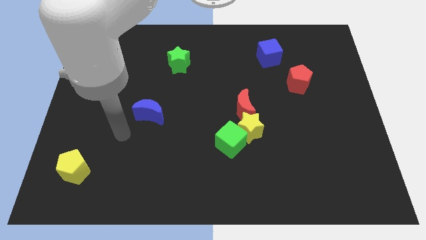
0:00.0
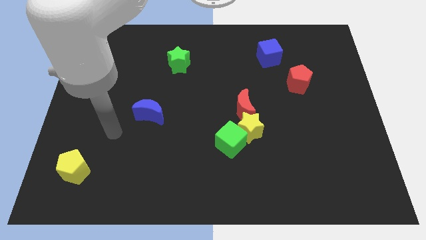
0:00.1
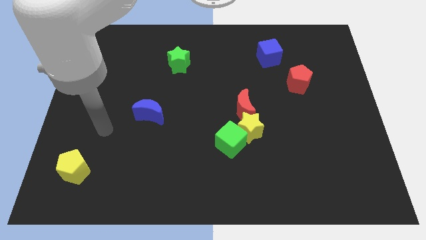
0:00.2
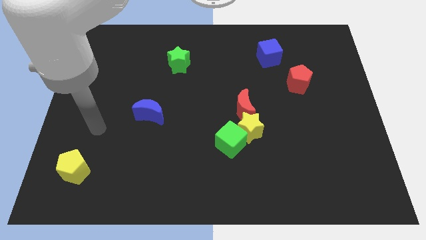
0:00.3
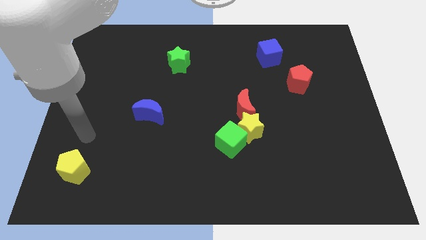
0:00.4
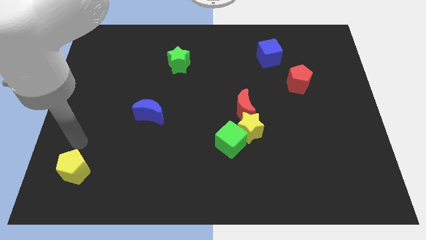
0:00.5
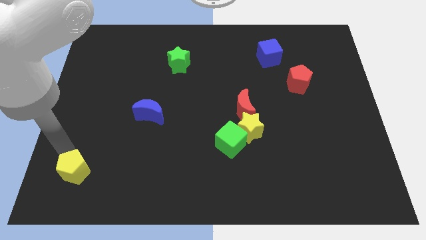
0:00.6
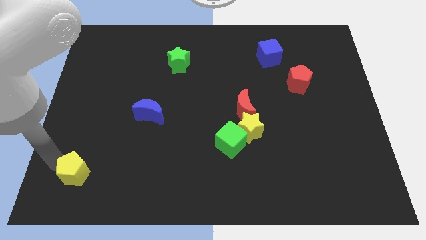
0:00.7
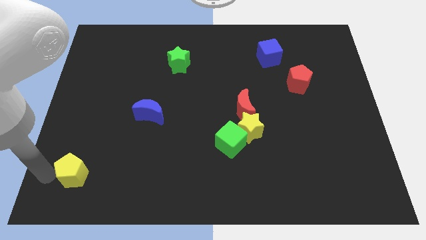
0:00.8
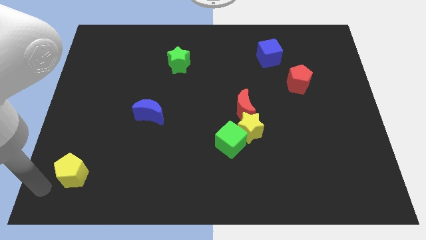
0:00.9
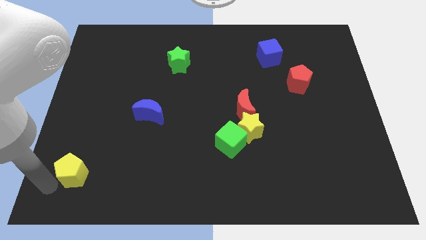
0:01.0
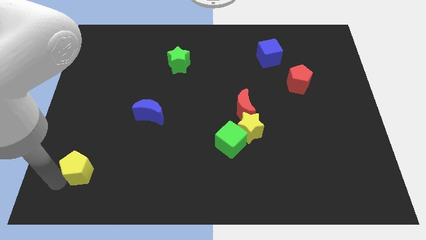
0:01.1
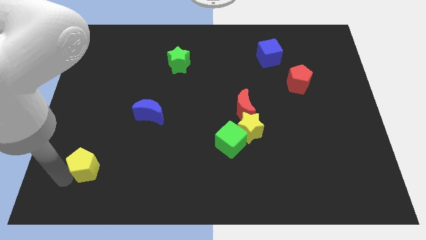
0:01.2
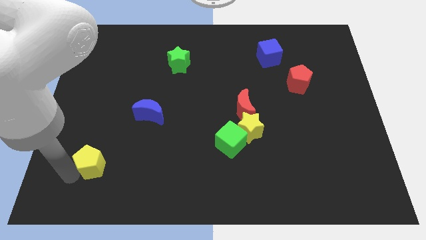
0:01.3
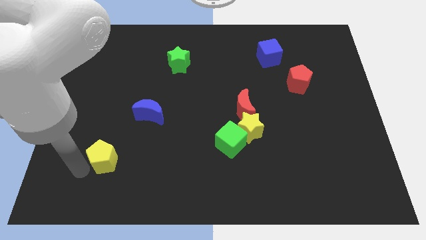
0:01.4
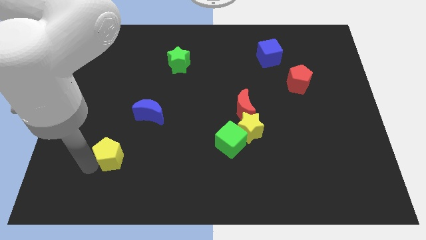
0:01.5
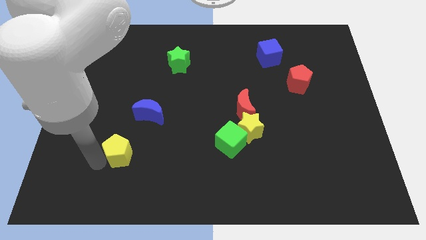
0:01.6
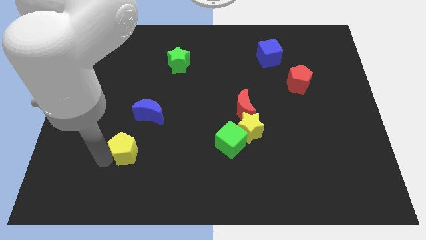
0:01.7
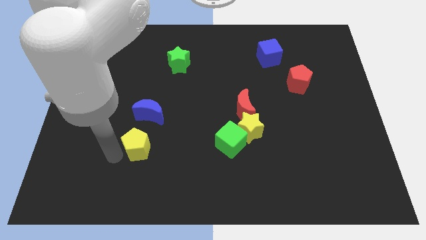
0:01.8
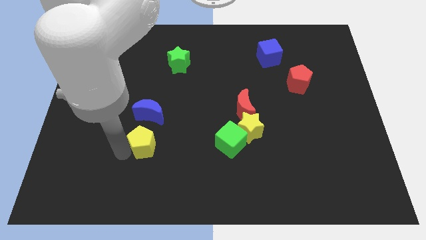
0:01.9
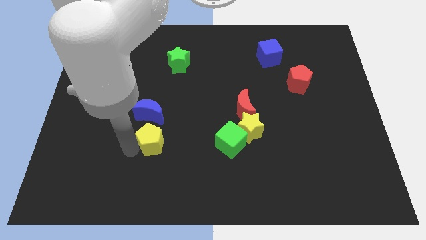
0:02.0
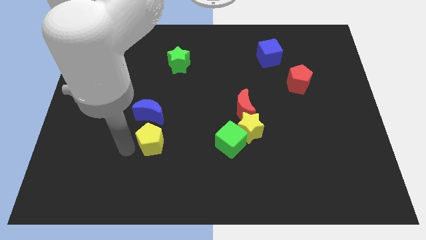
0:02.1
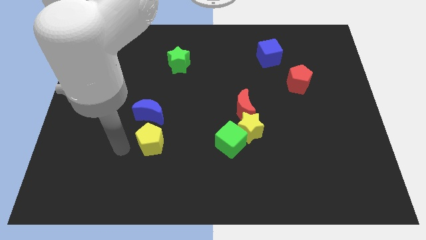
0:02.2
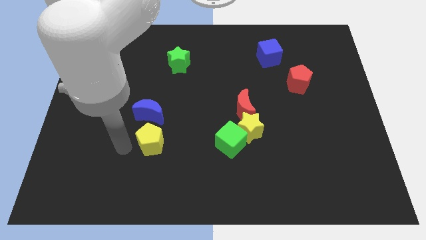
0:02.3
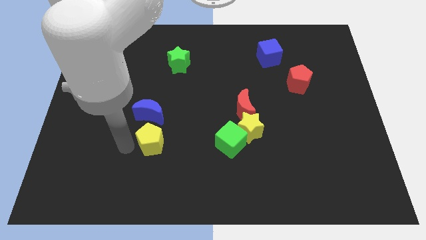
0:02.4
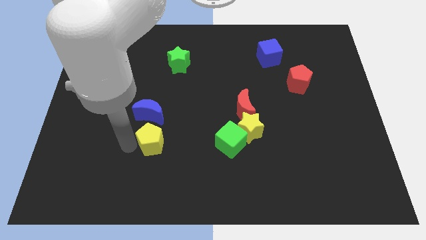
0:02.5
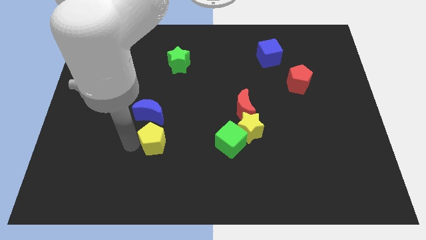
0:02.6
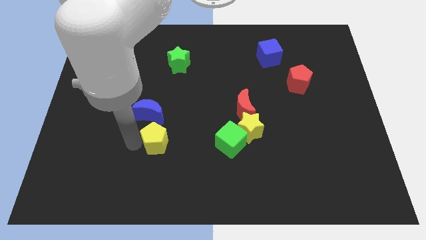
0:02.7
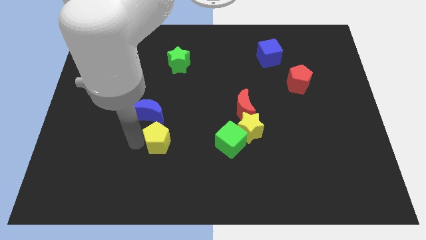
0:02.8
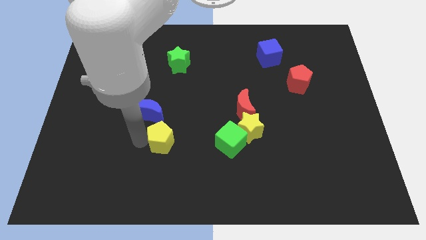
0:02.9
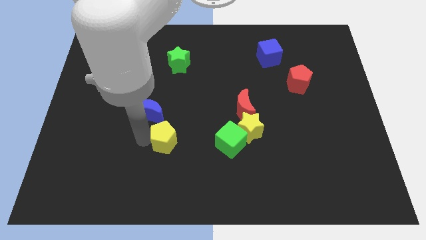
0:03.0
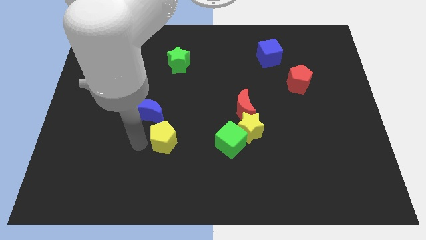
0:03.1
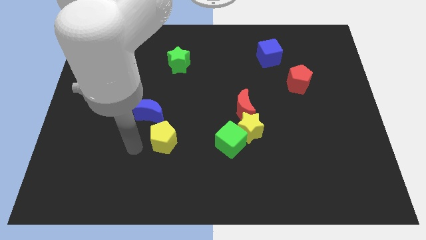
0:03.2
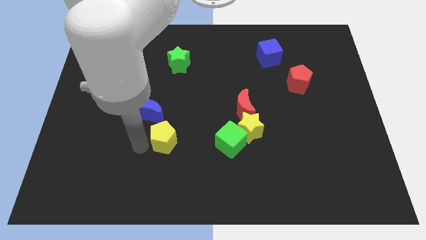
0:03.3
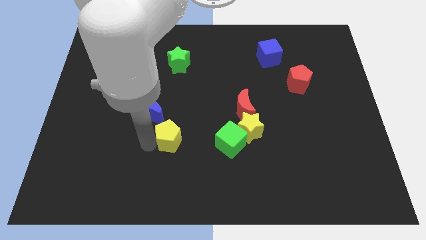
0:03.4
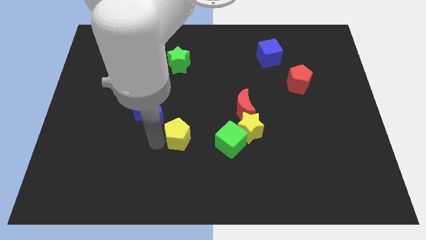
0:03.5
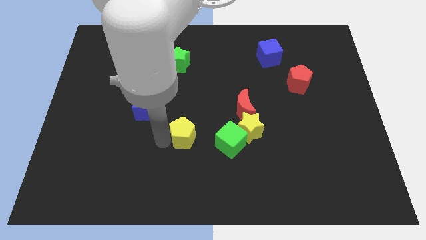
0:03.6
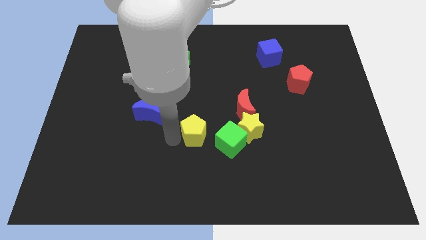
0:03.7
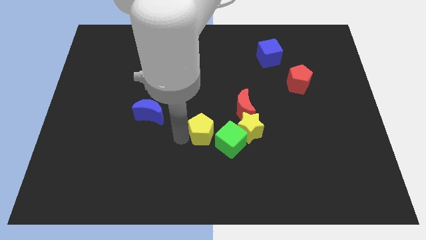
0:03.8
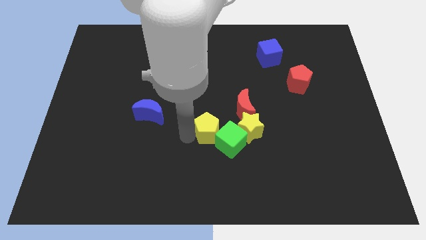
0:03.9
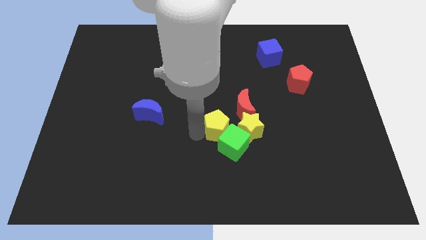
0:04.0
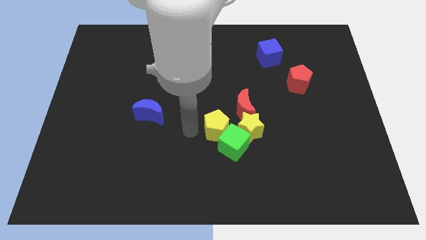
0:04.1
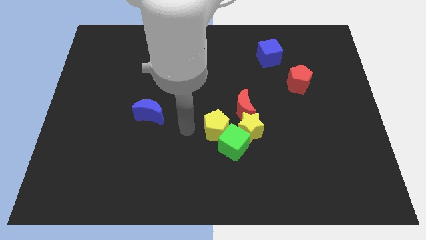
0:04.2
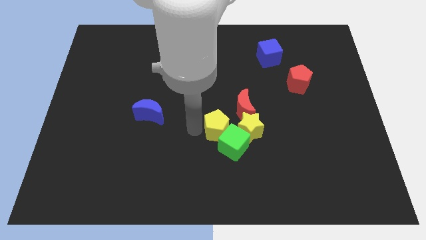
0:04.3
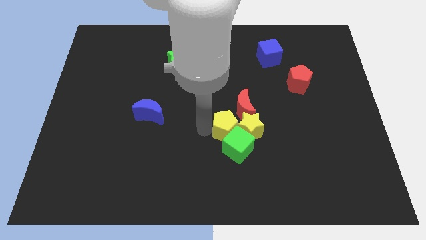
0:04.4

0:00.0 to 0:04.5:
push the yellow pentagon close to the yellow star

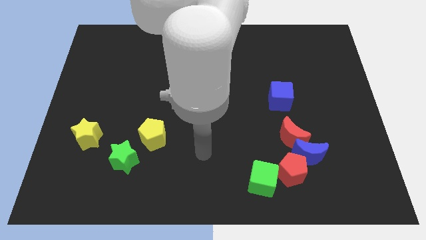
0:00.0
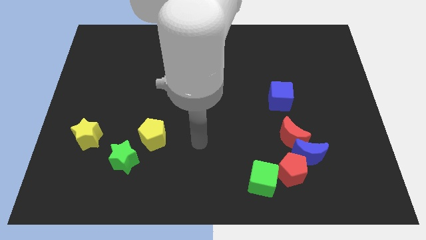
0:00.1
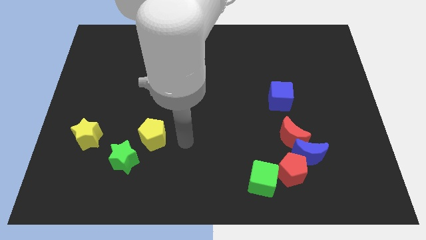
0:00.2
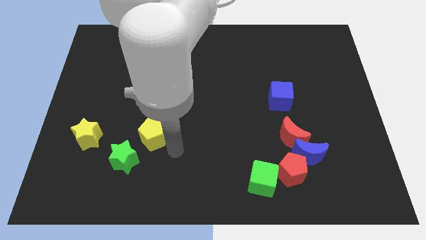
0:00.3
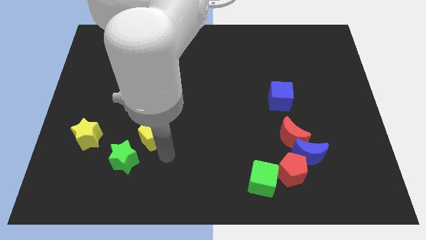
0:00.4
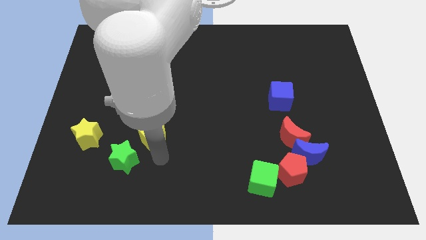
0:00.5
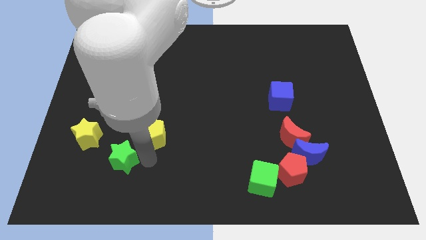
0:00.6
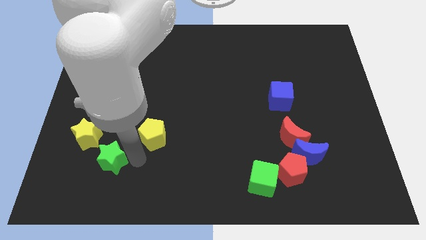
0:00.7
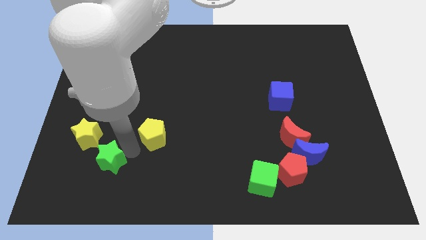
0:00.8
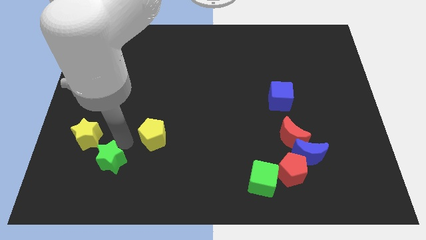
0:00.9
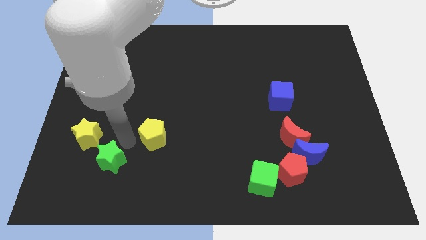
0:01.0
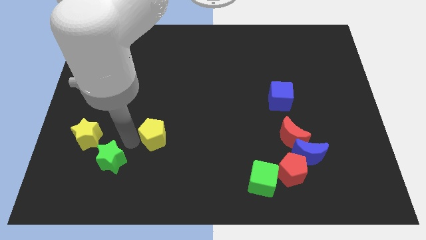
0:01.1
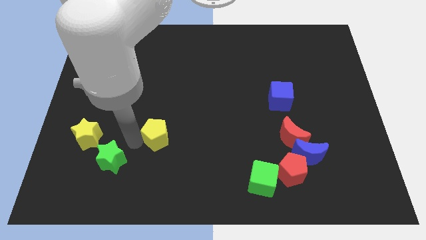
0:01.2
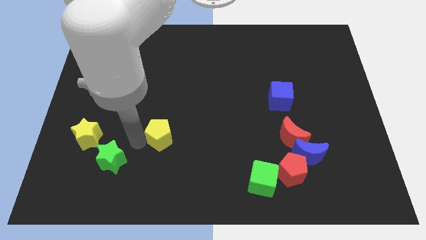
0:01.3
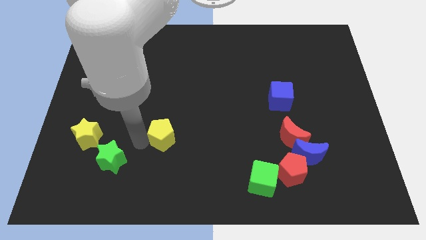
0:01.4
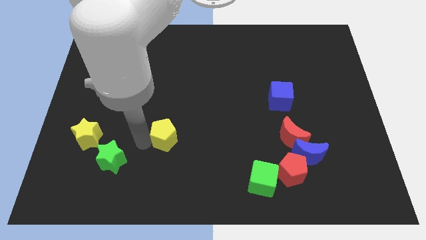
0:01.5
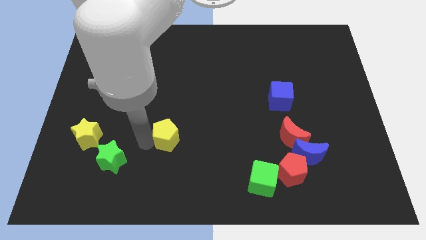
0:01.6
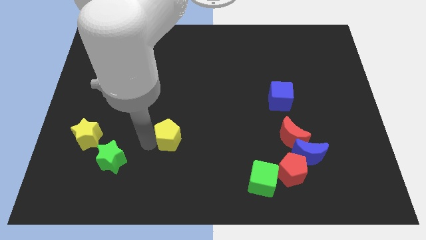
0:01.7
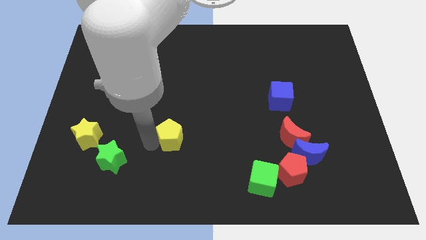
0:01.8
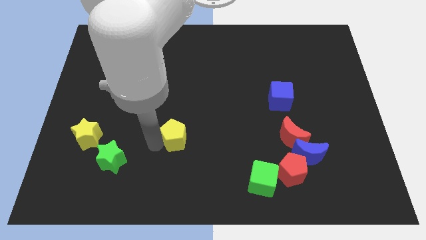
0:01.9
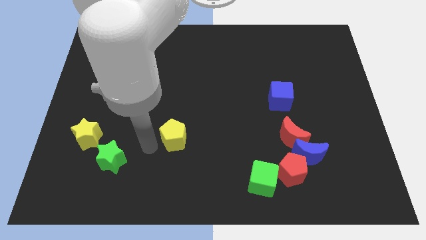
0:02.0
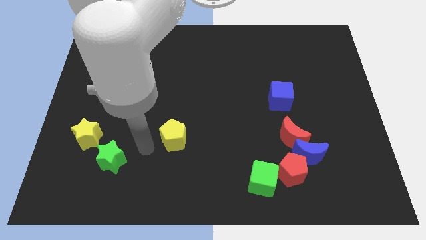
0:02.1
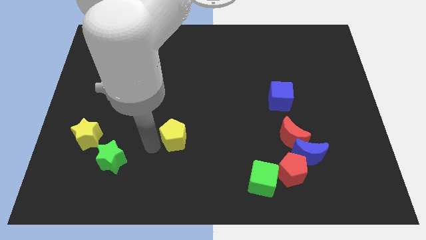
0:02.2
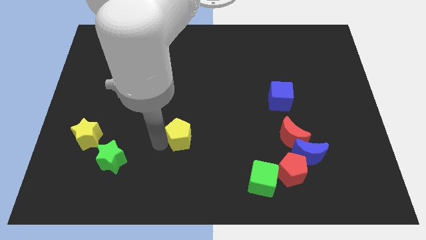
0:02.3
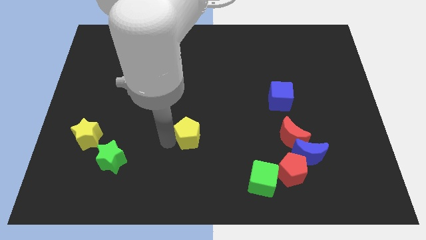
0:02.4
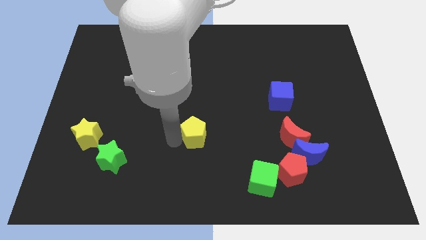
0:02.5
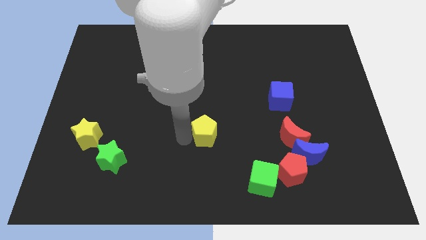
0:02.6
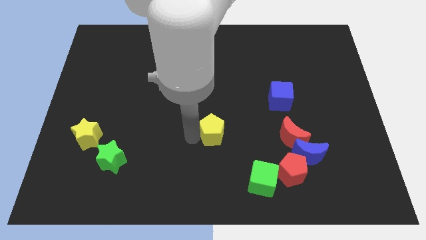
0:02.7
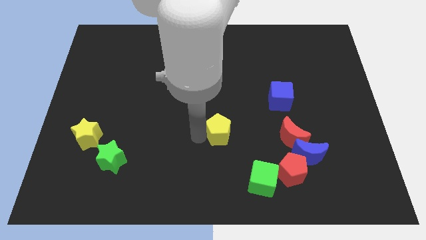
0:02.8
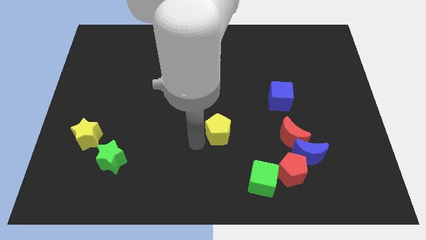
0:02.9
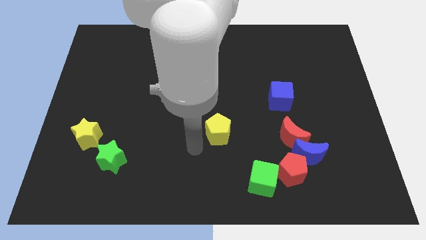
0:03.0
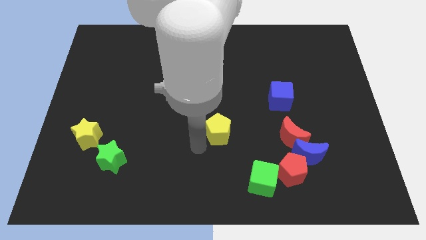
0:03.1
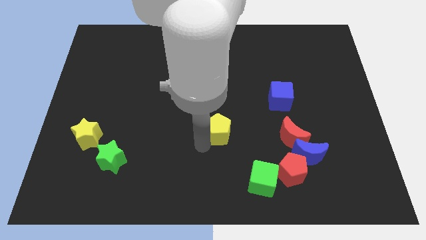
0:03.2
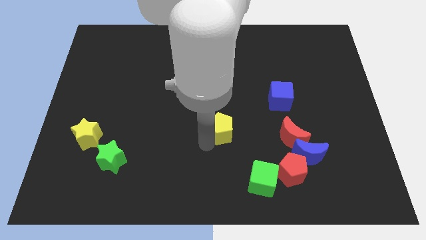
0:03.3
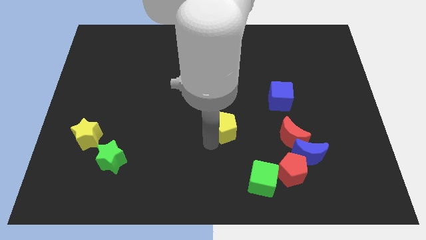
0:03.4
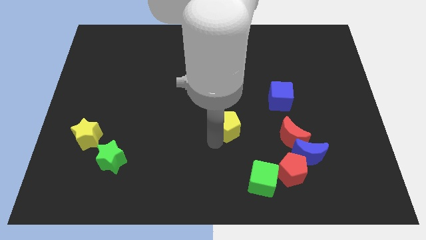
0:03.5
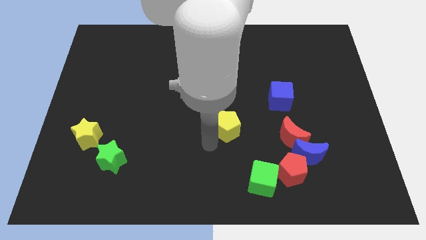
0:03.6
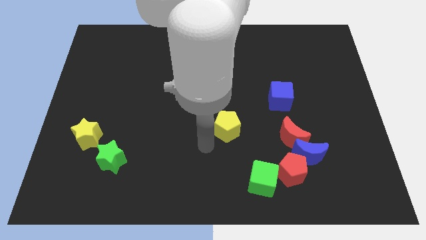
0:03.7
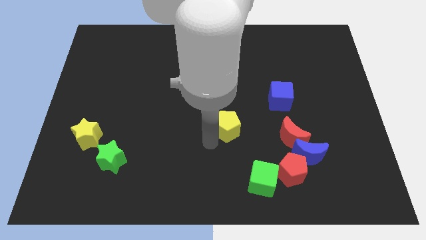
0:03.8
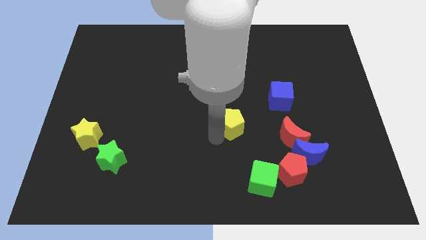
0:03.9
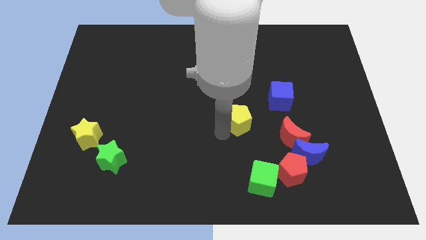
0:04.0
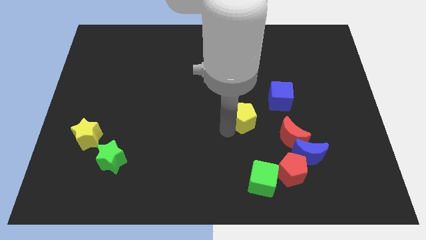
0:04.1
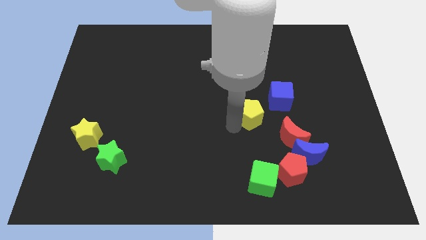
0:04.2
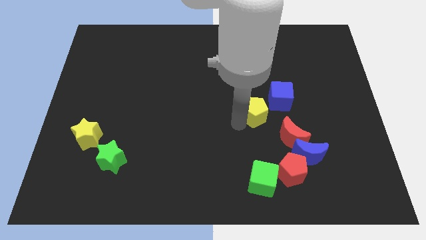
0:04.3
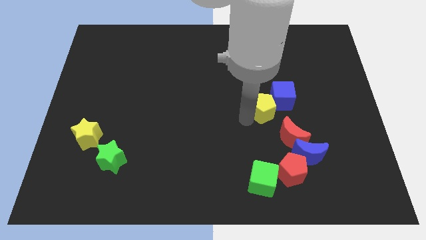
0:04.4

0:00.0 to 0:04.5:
move the yellow pentagon to the blue cube
